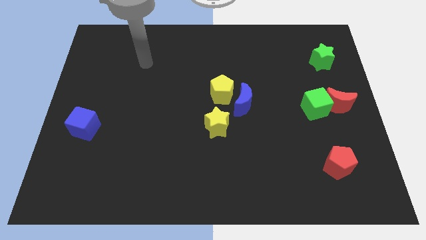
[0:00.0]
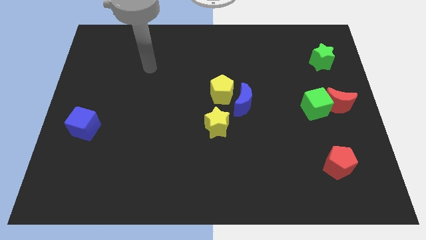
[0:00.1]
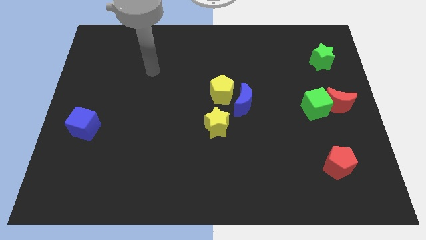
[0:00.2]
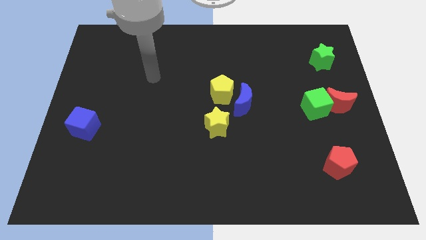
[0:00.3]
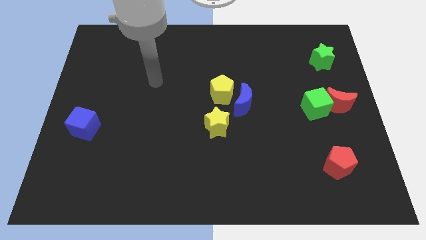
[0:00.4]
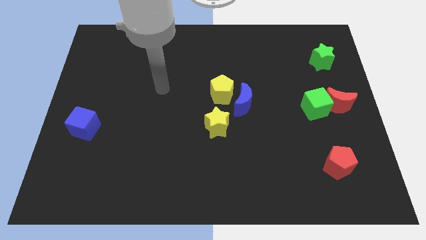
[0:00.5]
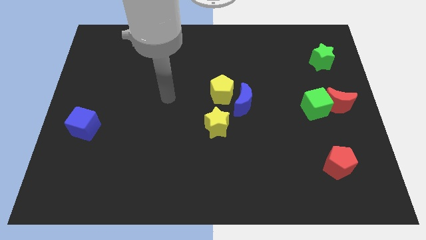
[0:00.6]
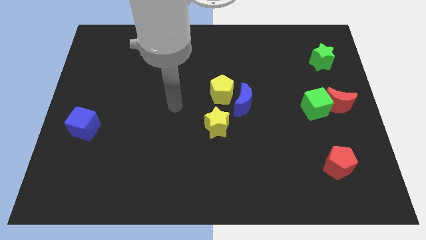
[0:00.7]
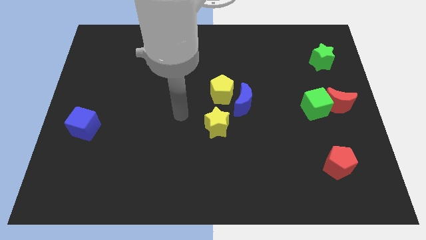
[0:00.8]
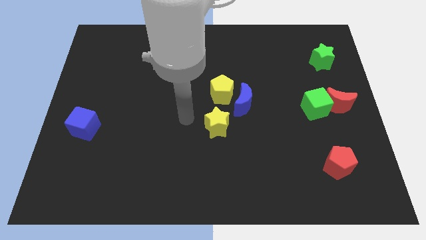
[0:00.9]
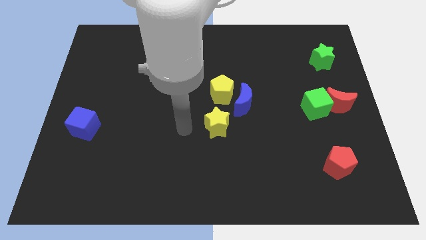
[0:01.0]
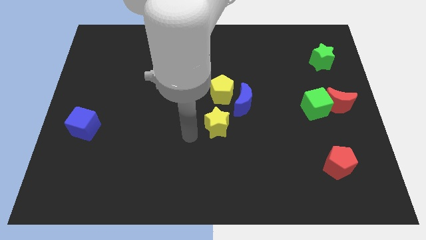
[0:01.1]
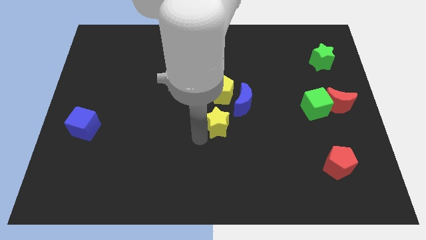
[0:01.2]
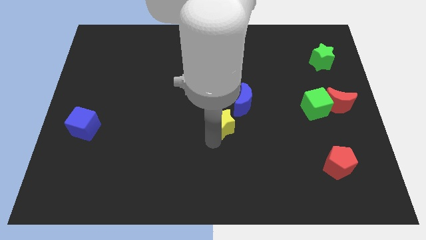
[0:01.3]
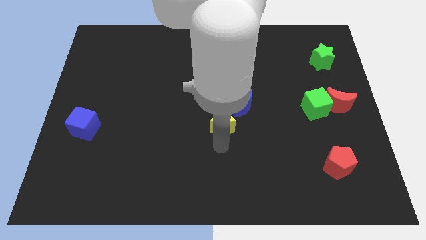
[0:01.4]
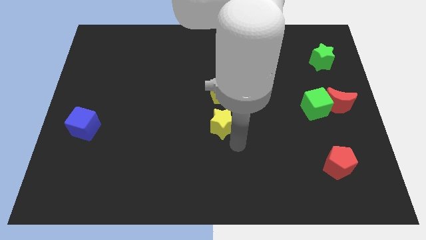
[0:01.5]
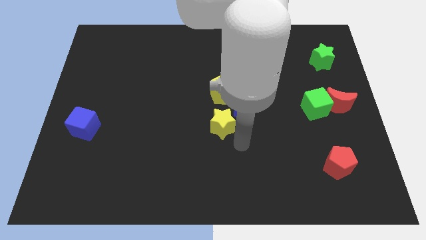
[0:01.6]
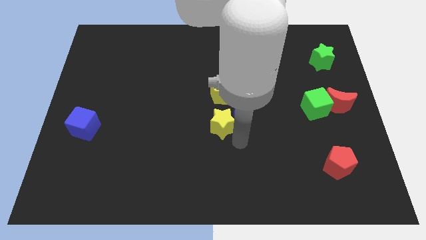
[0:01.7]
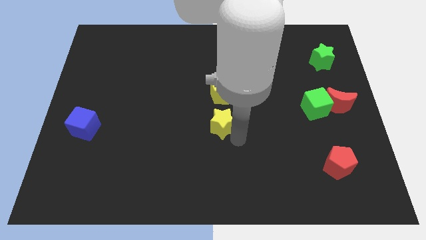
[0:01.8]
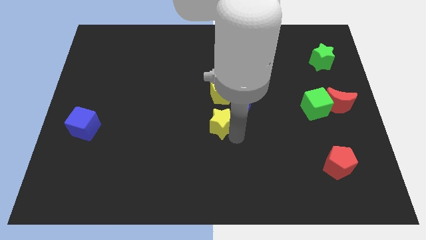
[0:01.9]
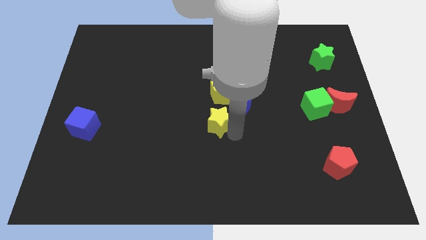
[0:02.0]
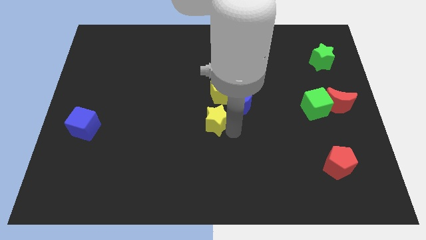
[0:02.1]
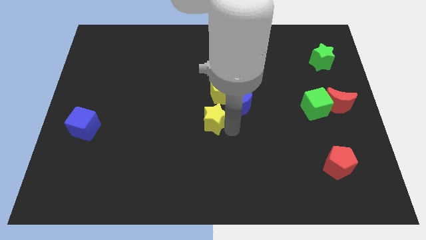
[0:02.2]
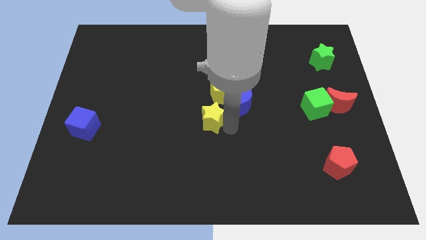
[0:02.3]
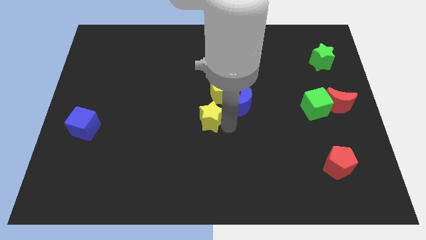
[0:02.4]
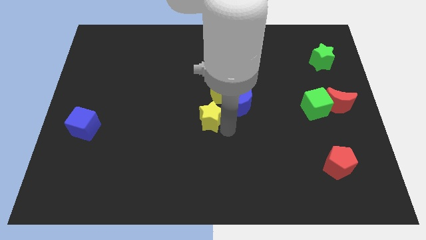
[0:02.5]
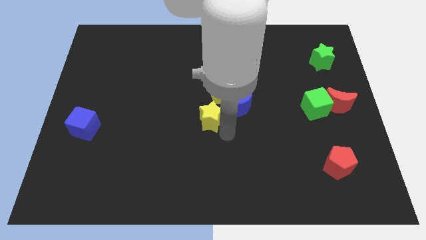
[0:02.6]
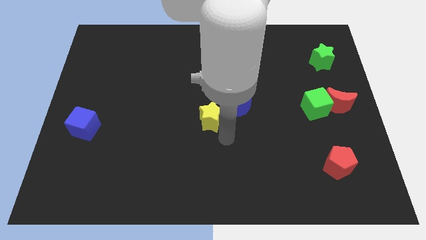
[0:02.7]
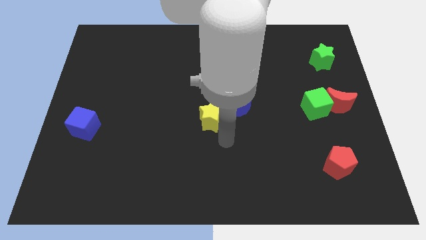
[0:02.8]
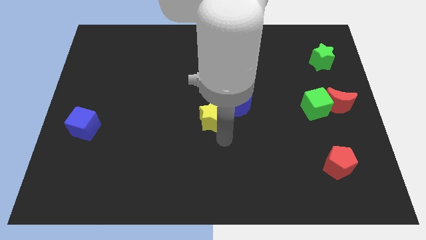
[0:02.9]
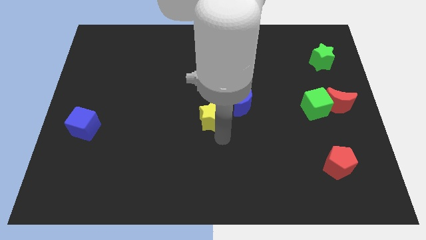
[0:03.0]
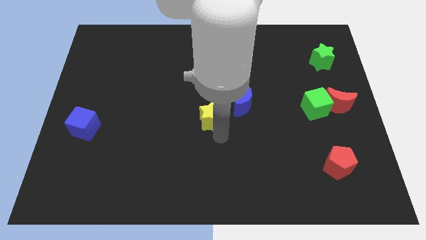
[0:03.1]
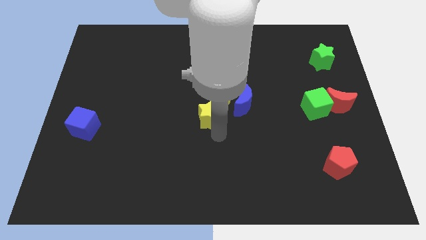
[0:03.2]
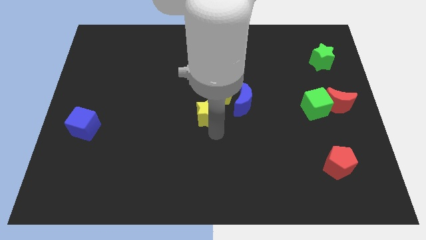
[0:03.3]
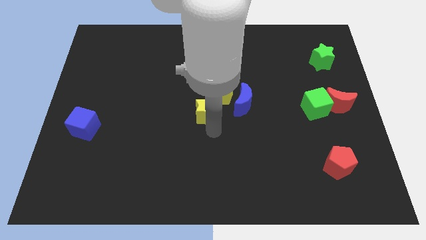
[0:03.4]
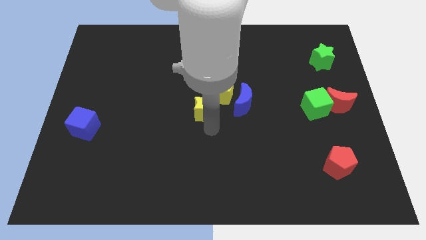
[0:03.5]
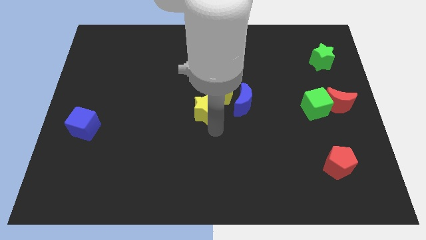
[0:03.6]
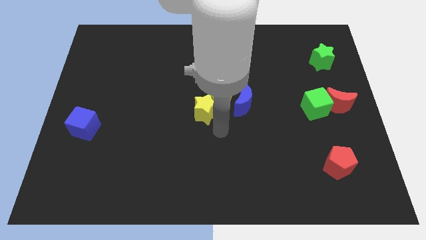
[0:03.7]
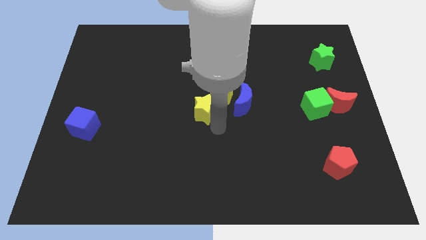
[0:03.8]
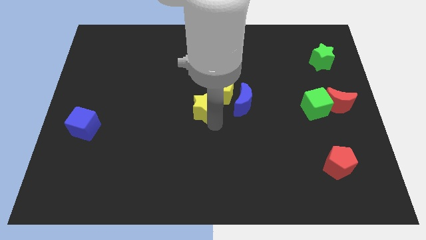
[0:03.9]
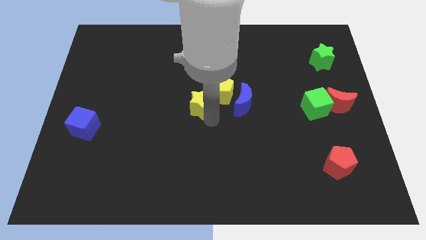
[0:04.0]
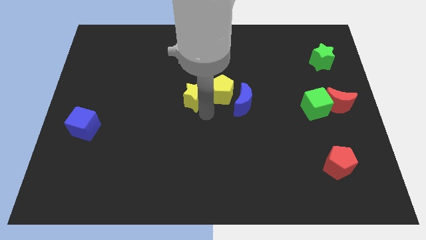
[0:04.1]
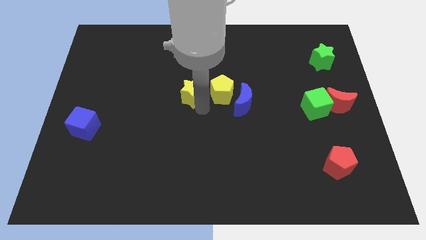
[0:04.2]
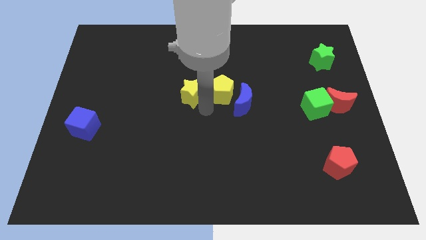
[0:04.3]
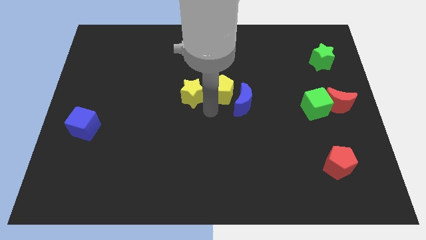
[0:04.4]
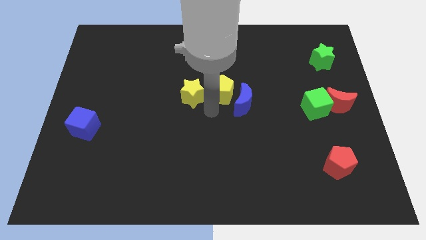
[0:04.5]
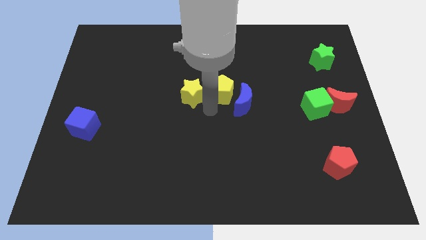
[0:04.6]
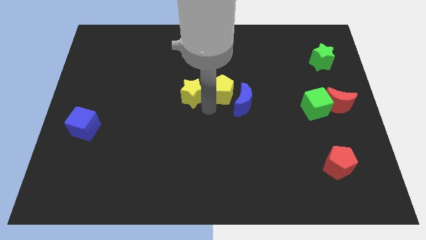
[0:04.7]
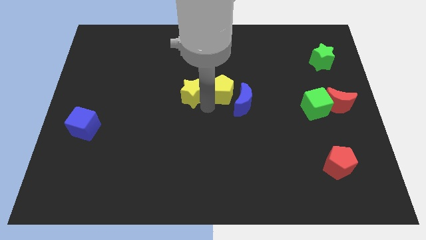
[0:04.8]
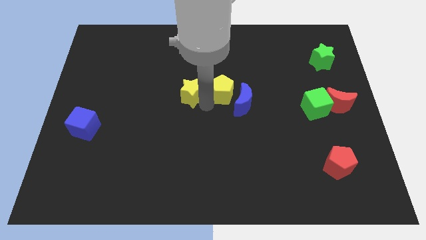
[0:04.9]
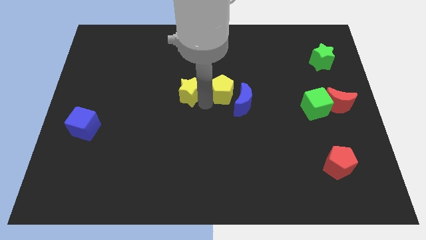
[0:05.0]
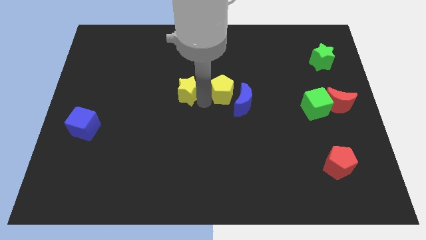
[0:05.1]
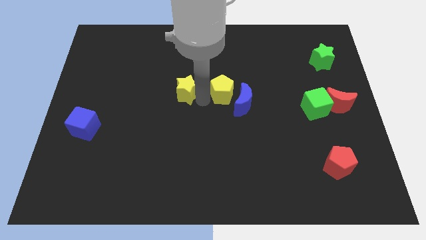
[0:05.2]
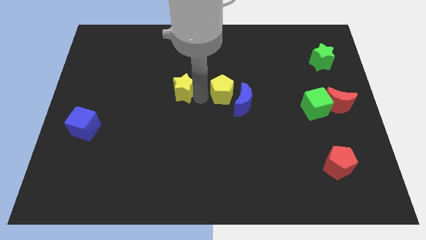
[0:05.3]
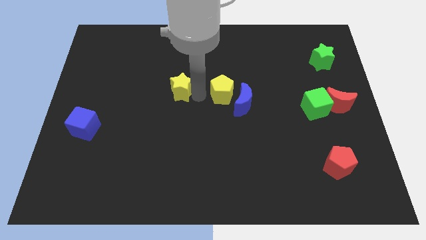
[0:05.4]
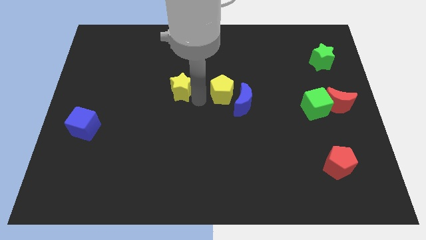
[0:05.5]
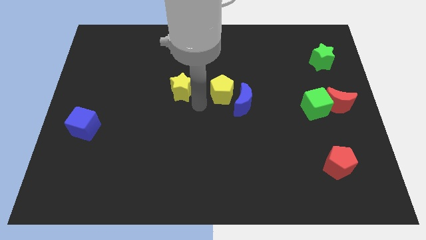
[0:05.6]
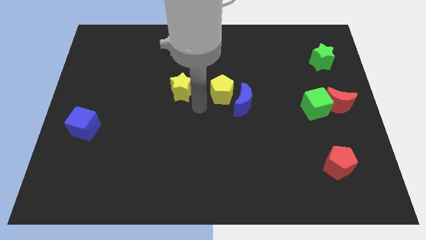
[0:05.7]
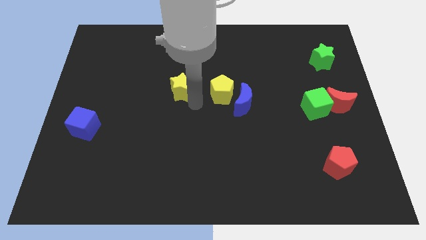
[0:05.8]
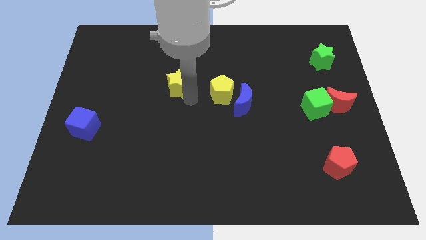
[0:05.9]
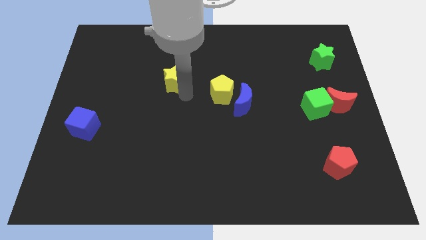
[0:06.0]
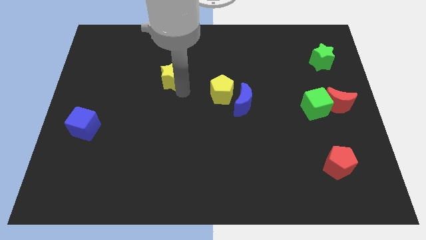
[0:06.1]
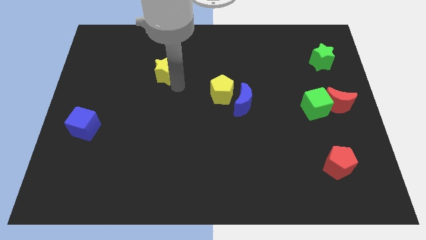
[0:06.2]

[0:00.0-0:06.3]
move the yellow star upwards and then left

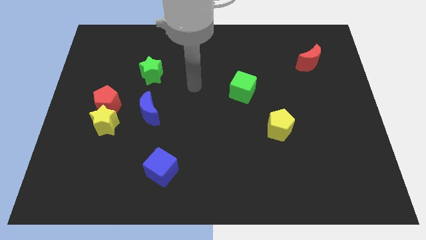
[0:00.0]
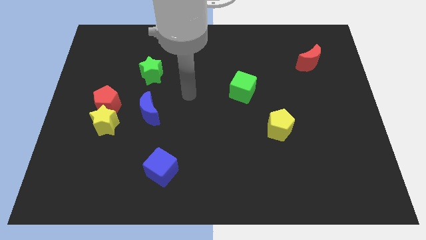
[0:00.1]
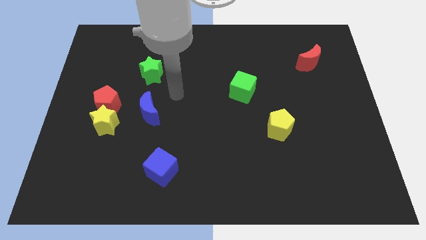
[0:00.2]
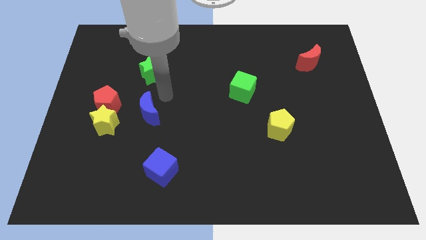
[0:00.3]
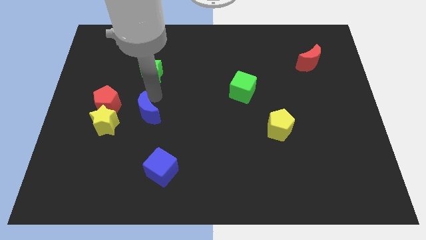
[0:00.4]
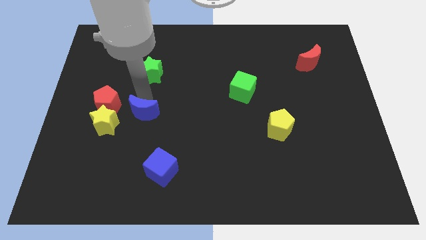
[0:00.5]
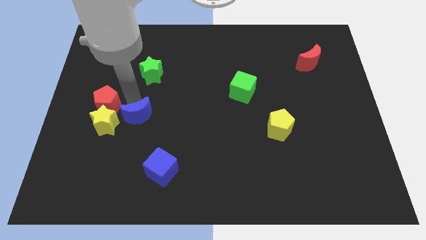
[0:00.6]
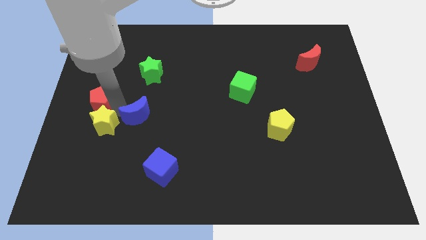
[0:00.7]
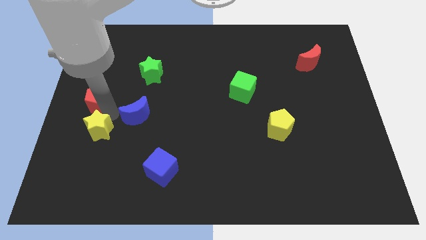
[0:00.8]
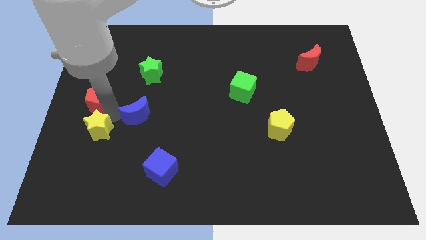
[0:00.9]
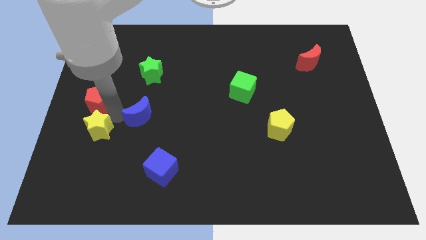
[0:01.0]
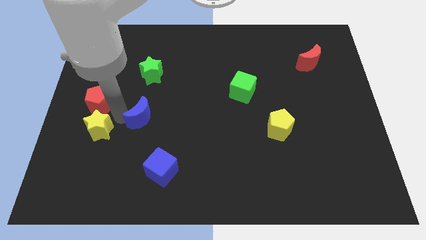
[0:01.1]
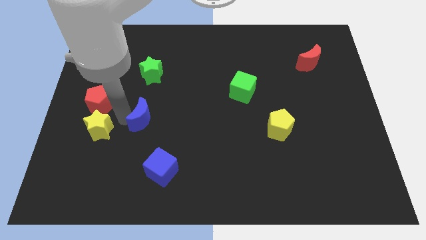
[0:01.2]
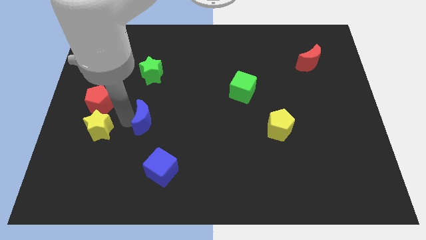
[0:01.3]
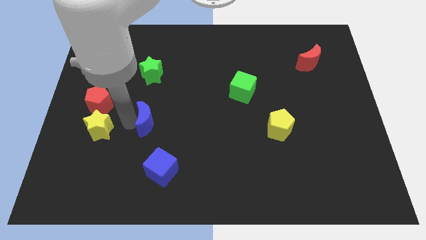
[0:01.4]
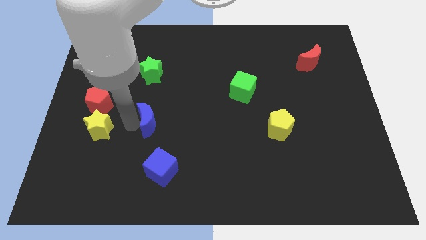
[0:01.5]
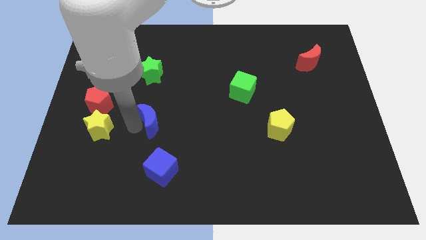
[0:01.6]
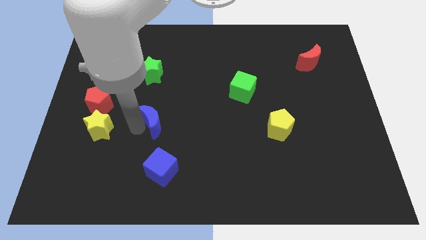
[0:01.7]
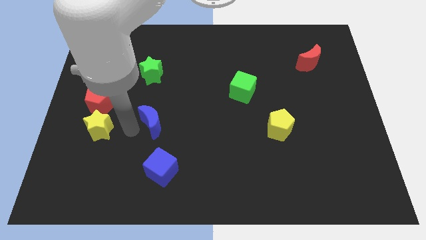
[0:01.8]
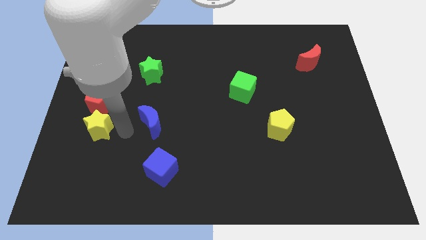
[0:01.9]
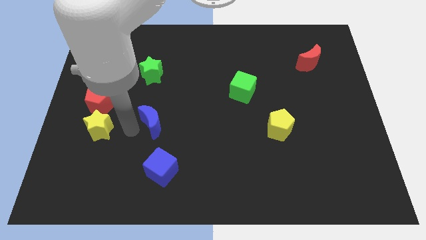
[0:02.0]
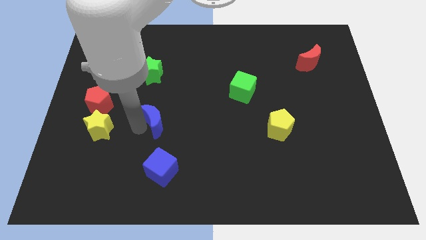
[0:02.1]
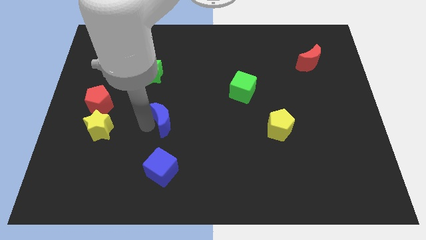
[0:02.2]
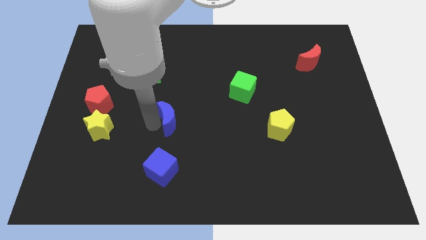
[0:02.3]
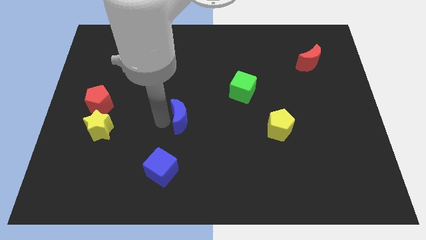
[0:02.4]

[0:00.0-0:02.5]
slide the blue moon to the right a little
